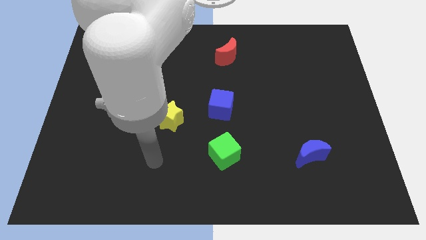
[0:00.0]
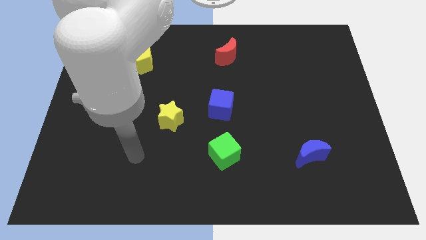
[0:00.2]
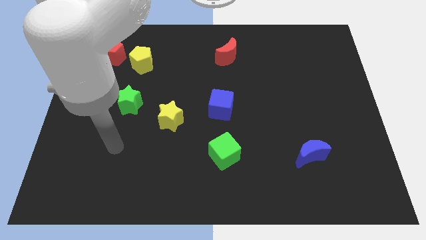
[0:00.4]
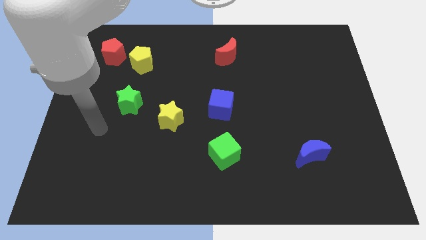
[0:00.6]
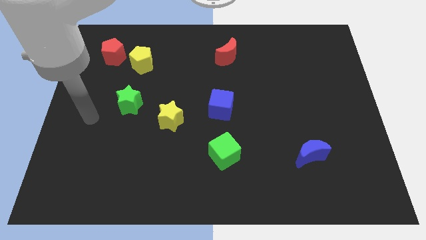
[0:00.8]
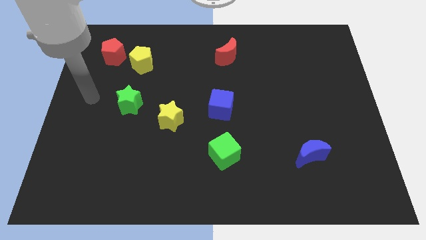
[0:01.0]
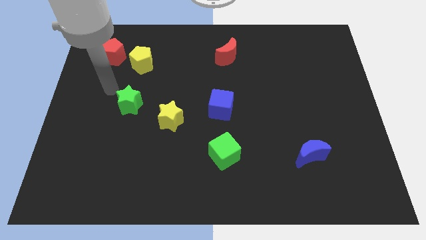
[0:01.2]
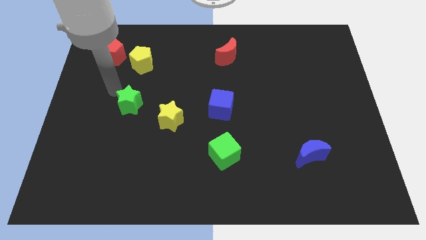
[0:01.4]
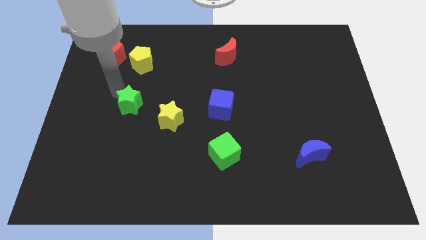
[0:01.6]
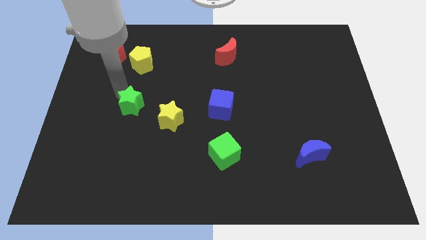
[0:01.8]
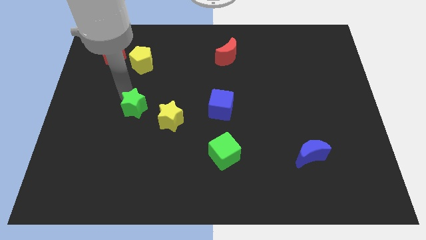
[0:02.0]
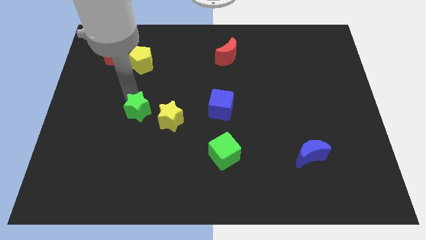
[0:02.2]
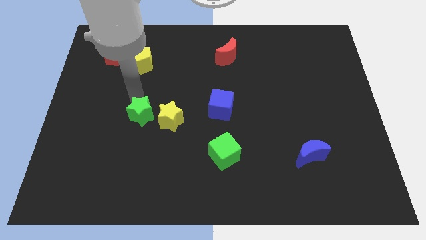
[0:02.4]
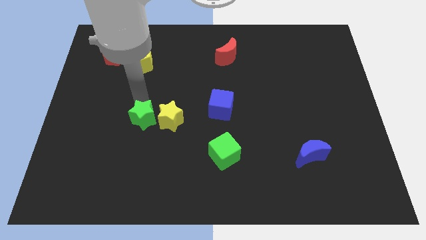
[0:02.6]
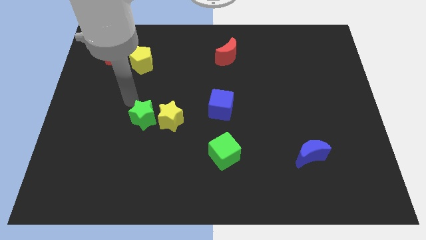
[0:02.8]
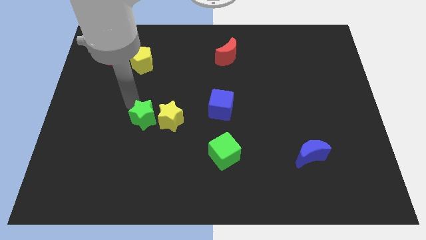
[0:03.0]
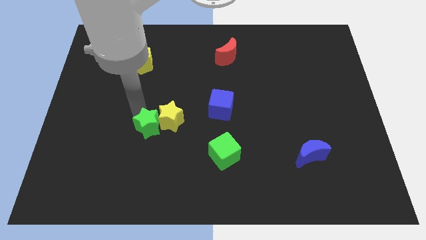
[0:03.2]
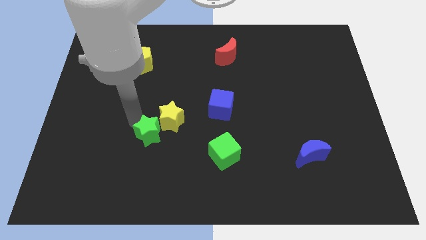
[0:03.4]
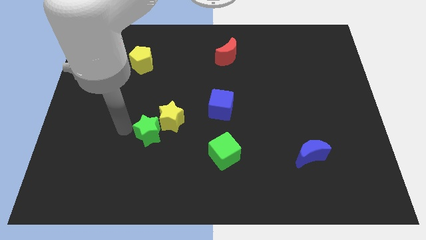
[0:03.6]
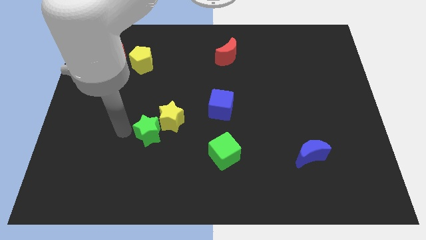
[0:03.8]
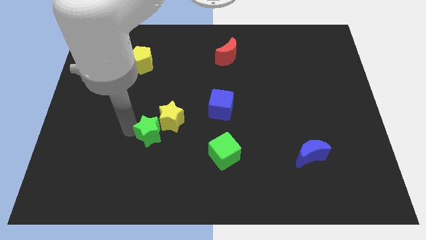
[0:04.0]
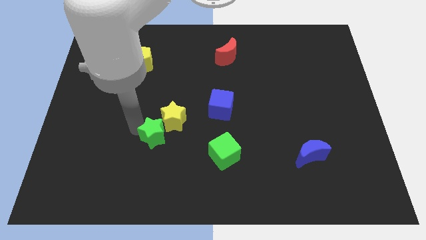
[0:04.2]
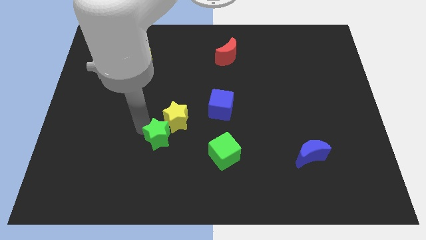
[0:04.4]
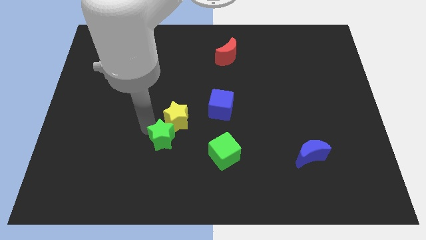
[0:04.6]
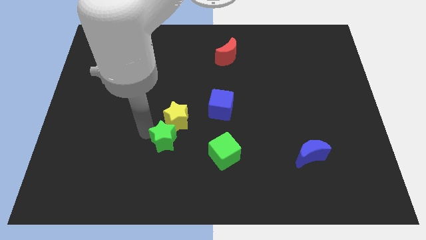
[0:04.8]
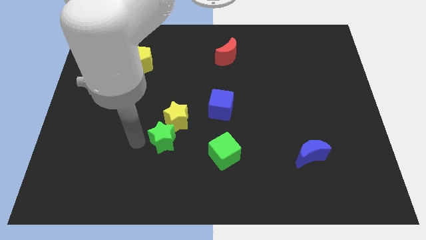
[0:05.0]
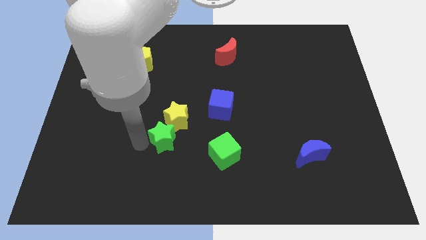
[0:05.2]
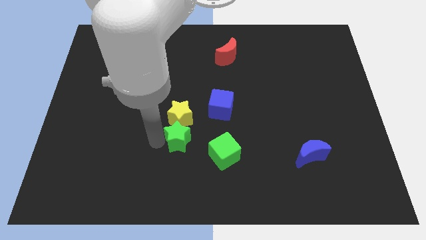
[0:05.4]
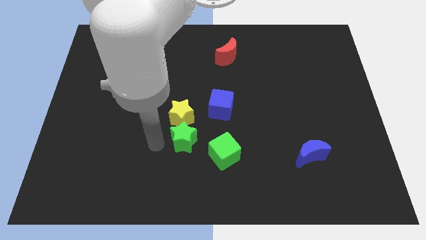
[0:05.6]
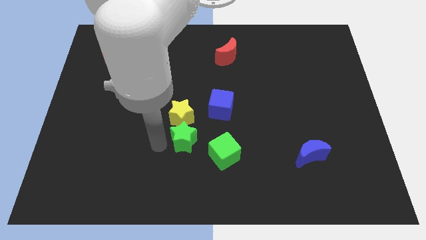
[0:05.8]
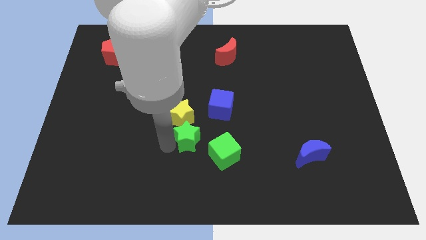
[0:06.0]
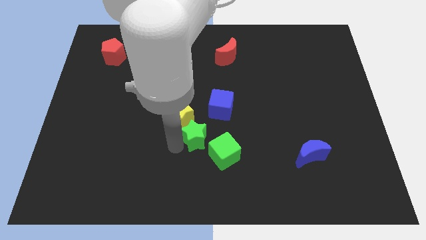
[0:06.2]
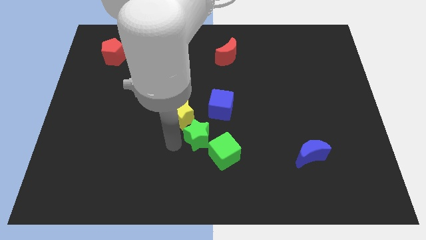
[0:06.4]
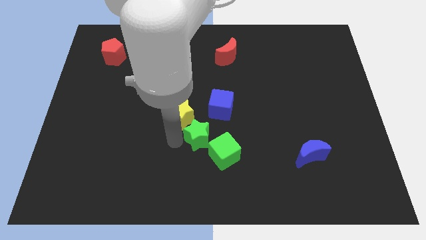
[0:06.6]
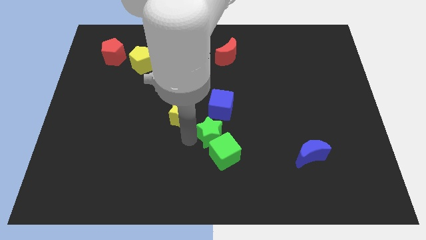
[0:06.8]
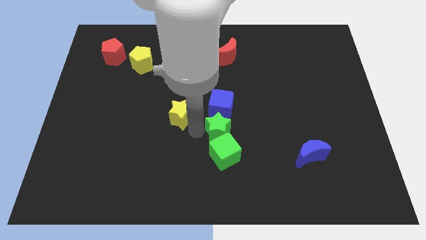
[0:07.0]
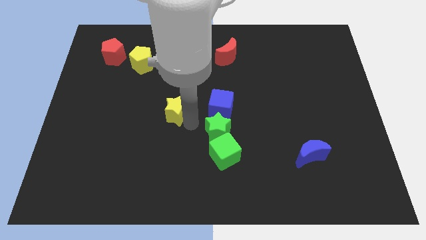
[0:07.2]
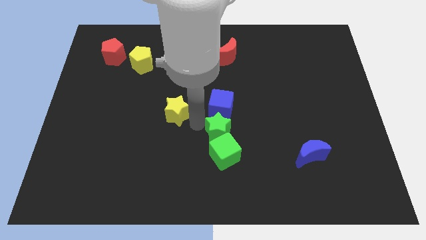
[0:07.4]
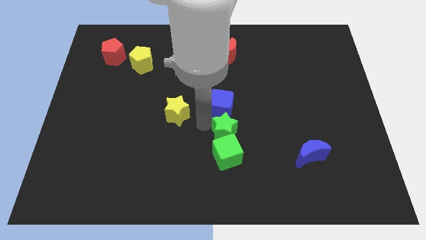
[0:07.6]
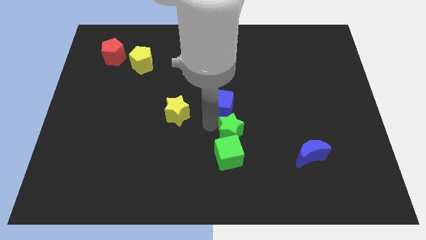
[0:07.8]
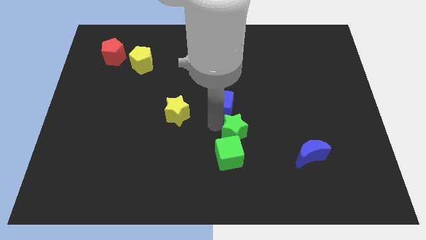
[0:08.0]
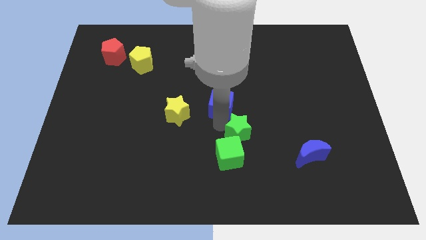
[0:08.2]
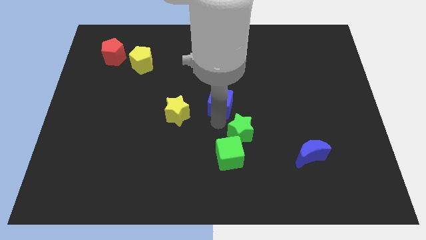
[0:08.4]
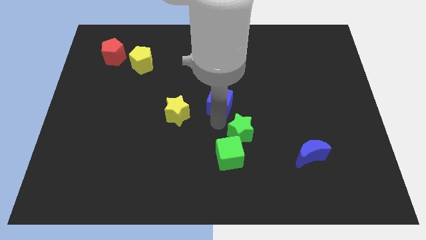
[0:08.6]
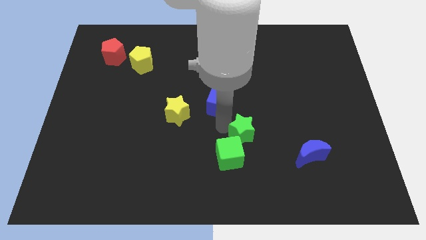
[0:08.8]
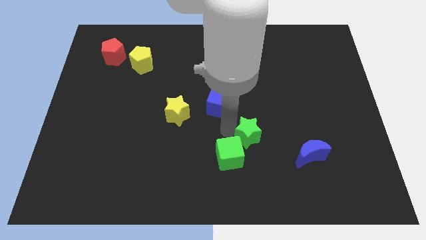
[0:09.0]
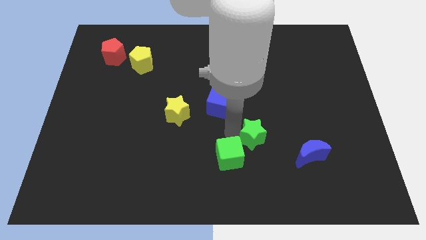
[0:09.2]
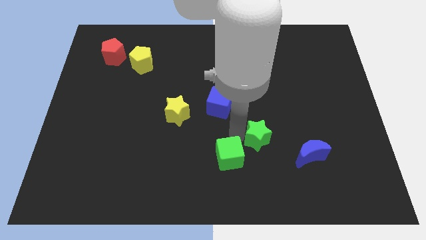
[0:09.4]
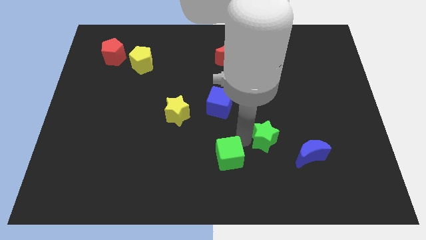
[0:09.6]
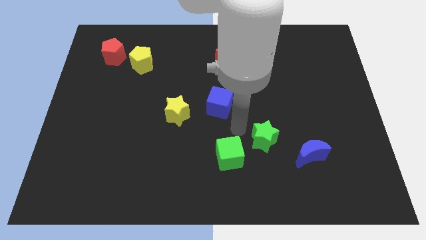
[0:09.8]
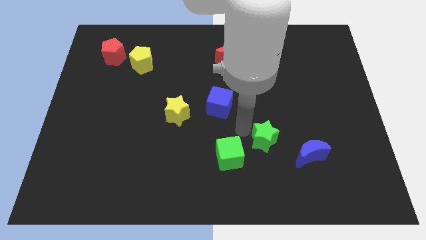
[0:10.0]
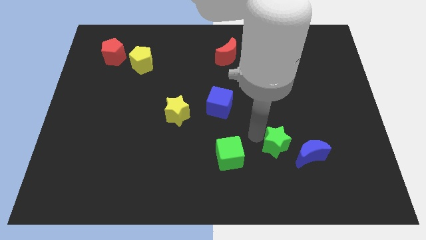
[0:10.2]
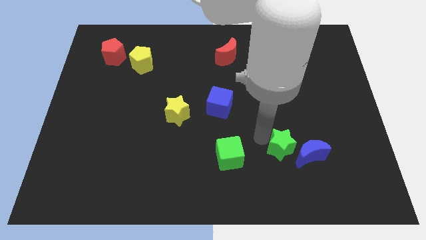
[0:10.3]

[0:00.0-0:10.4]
push the green star close to the blue moon

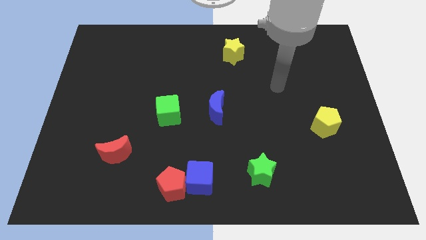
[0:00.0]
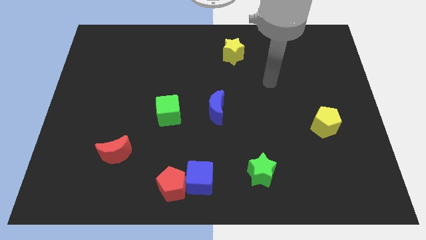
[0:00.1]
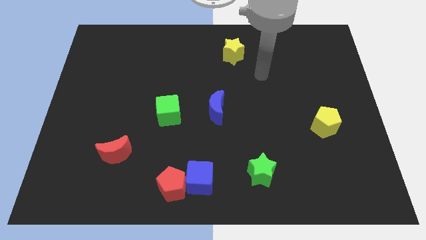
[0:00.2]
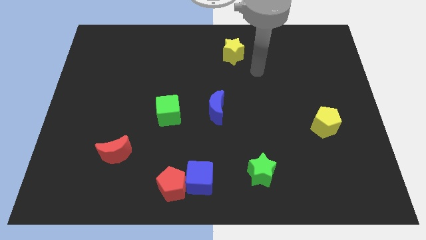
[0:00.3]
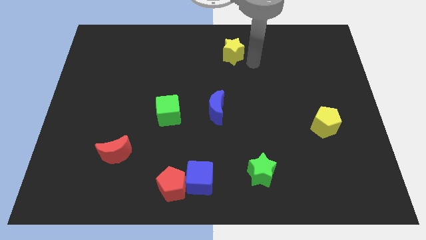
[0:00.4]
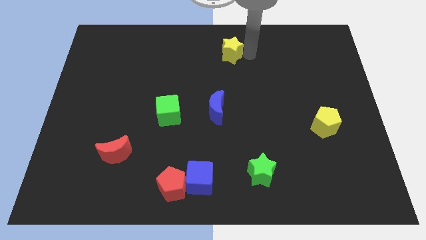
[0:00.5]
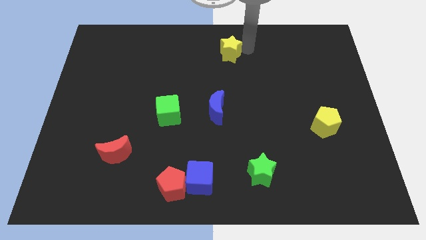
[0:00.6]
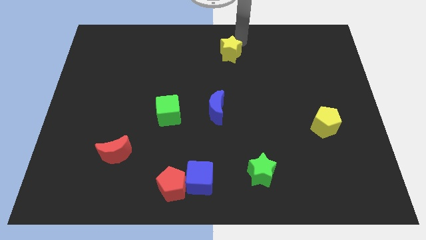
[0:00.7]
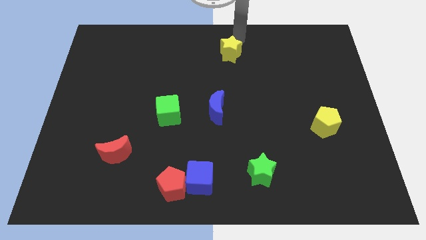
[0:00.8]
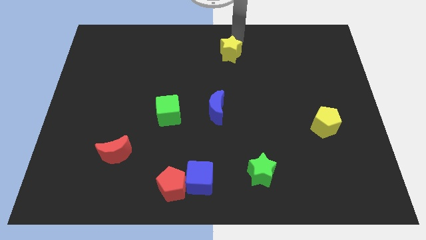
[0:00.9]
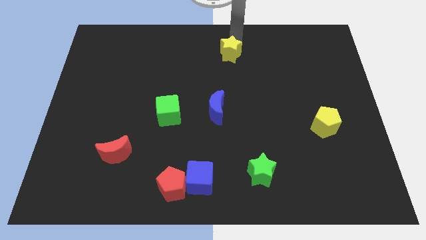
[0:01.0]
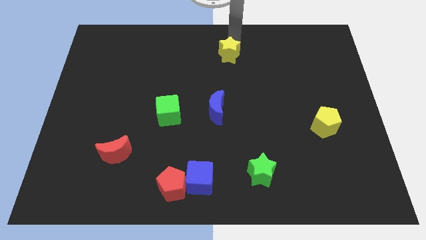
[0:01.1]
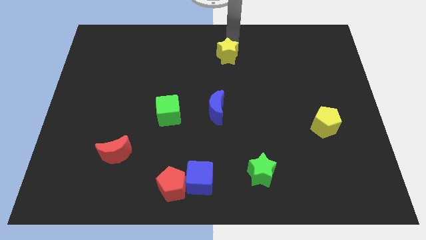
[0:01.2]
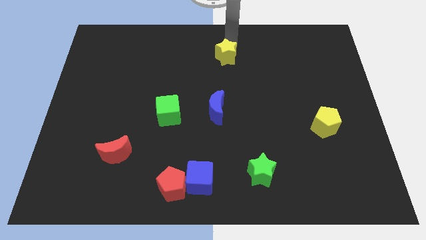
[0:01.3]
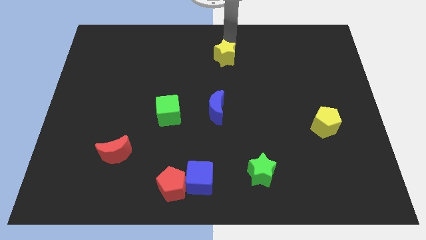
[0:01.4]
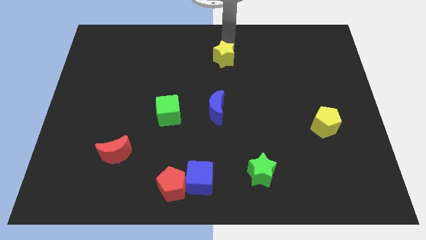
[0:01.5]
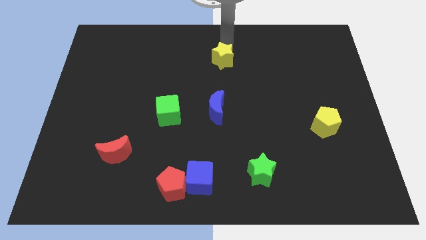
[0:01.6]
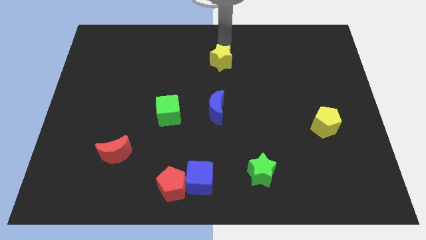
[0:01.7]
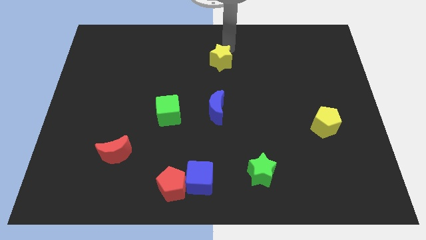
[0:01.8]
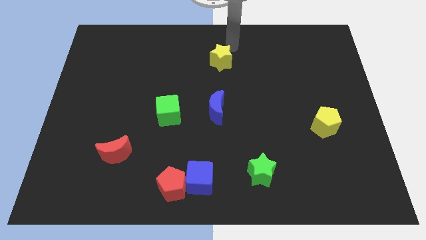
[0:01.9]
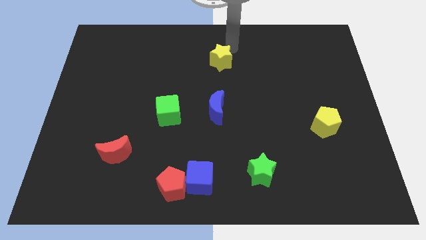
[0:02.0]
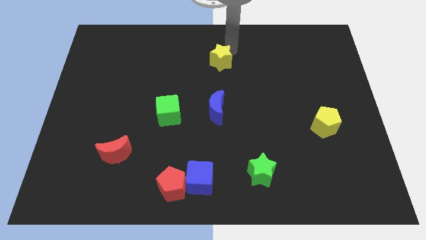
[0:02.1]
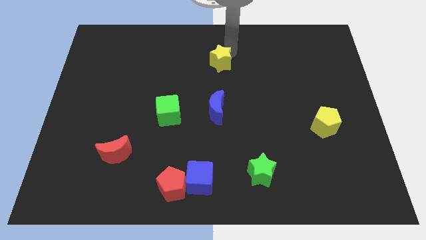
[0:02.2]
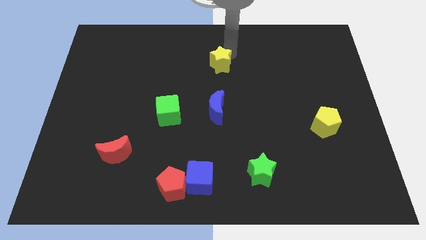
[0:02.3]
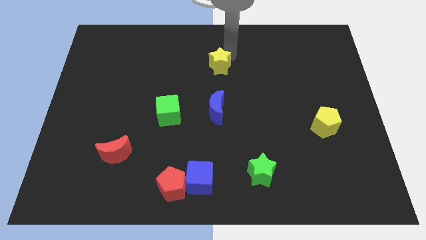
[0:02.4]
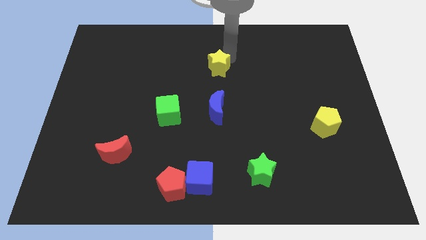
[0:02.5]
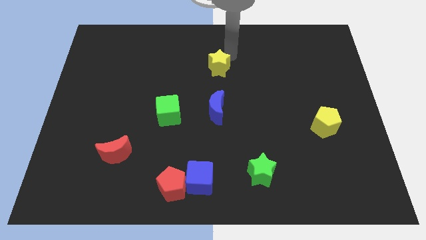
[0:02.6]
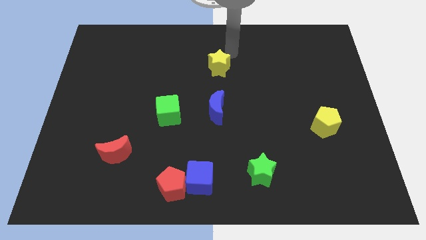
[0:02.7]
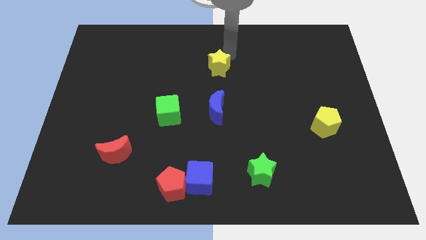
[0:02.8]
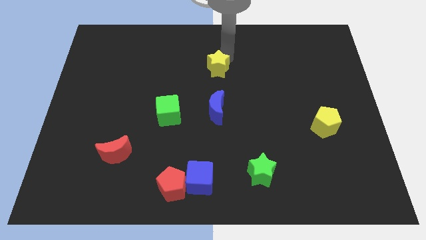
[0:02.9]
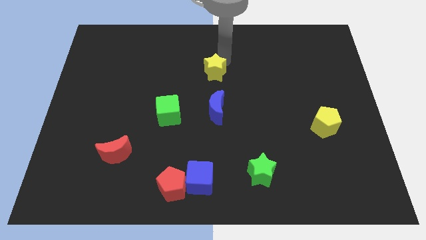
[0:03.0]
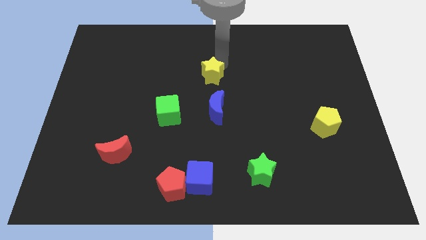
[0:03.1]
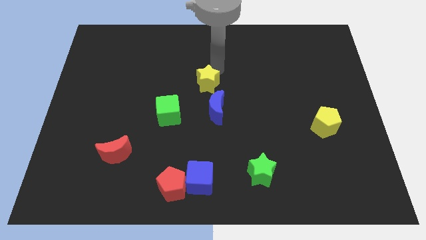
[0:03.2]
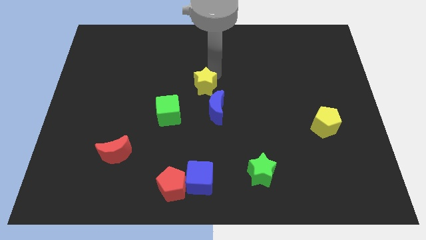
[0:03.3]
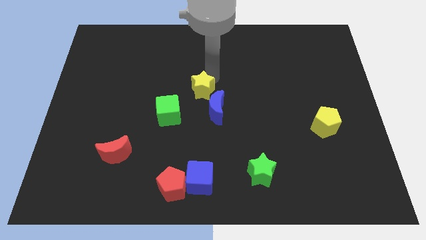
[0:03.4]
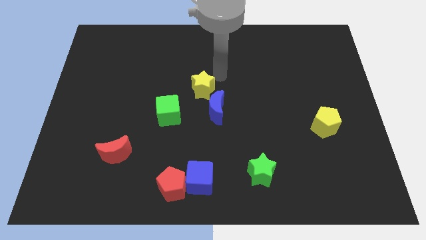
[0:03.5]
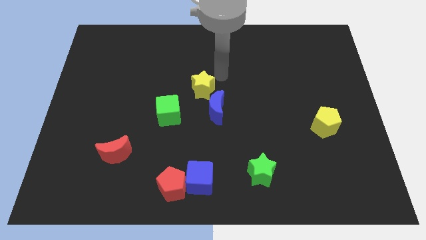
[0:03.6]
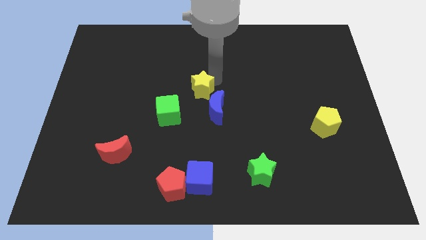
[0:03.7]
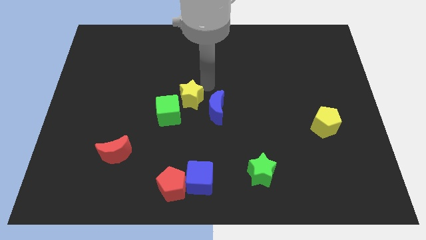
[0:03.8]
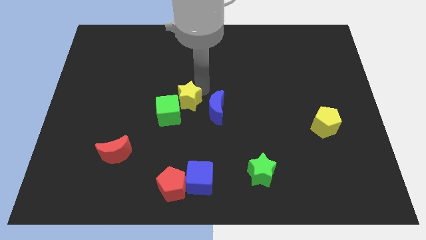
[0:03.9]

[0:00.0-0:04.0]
move the yellow star close to the green cube
